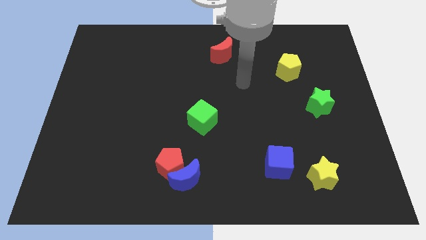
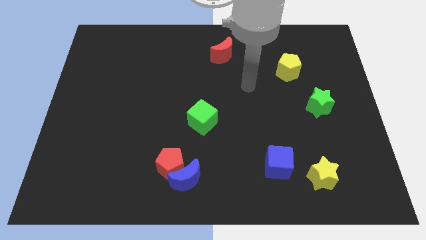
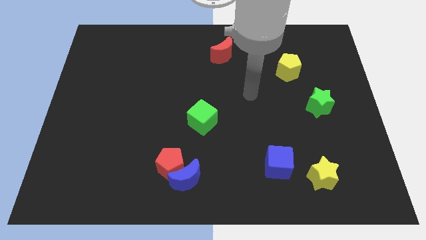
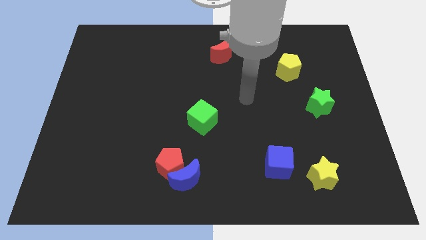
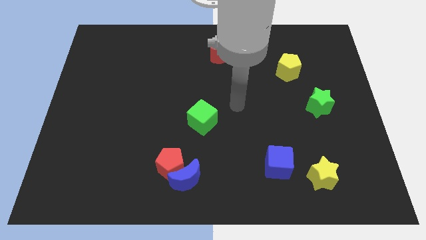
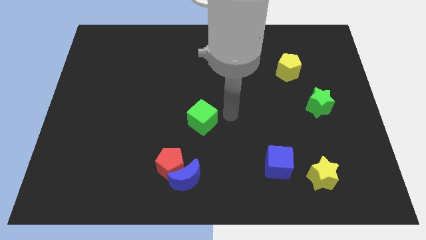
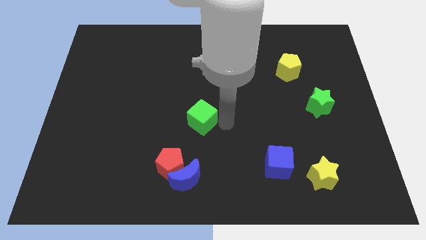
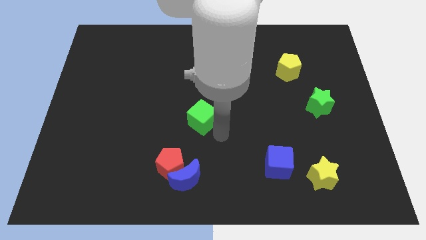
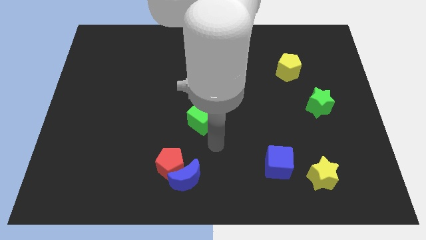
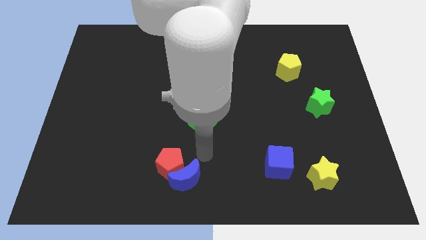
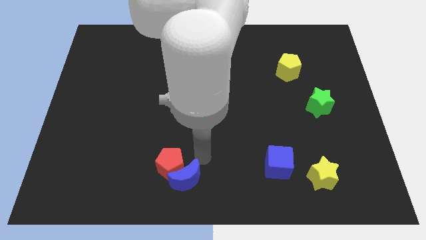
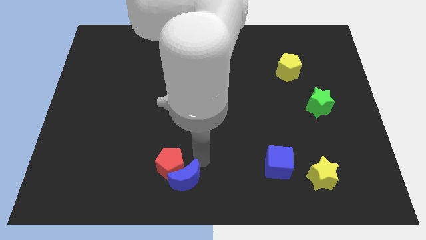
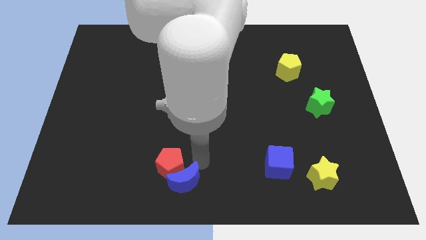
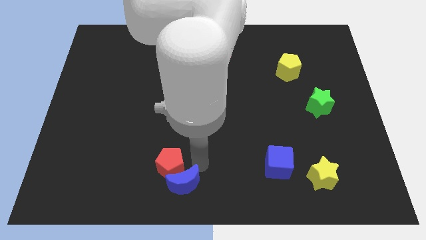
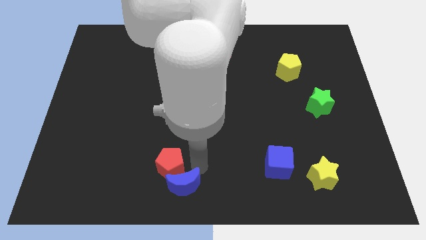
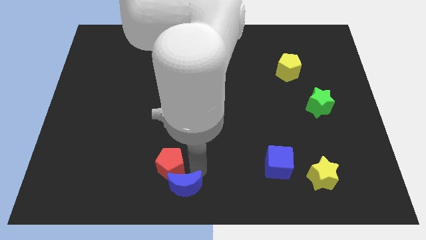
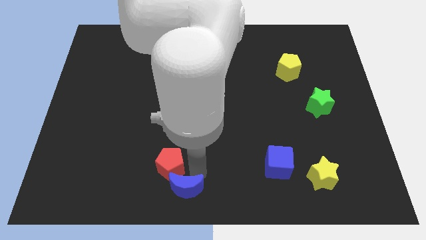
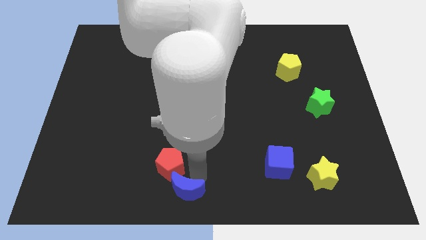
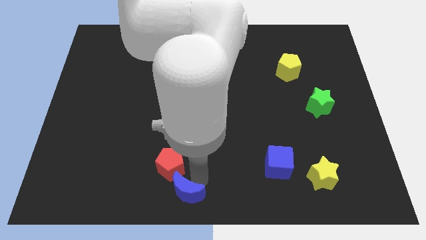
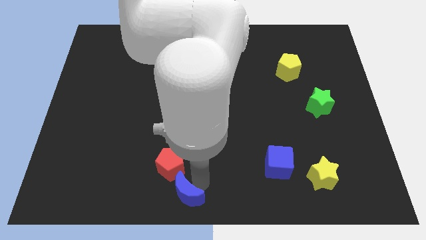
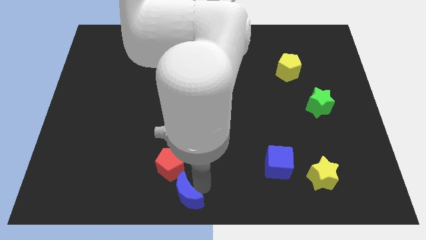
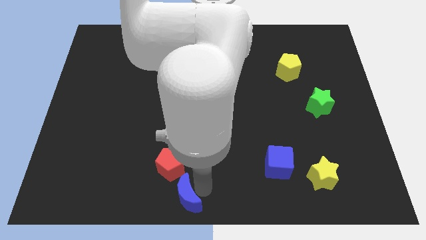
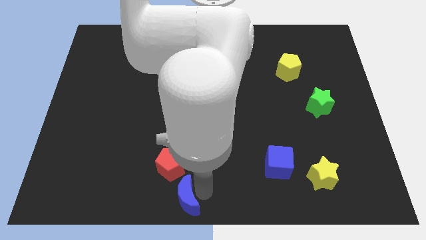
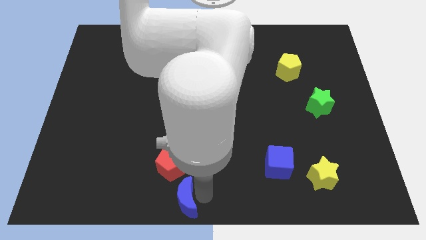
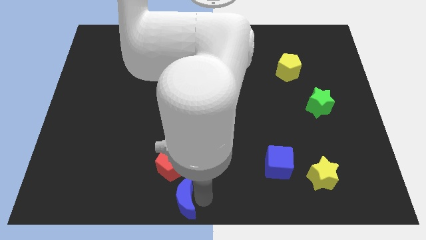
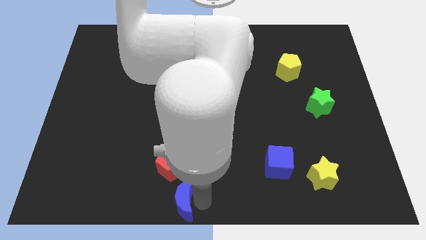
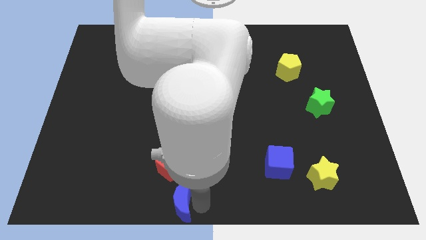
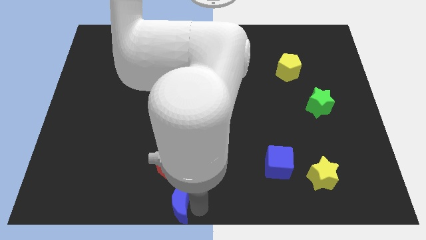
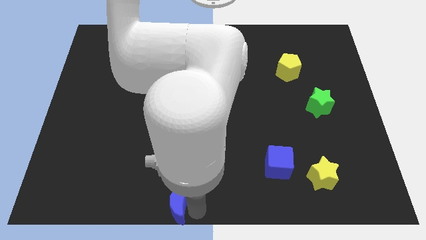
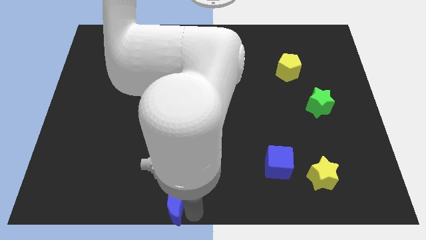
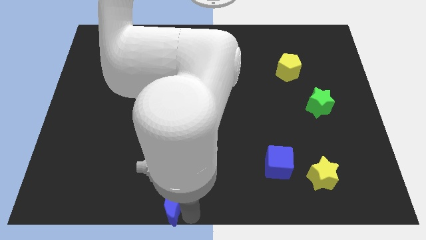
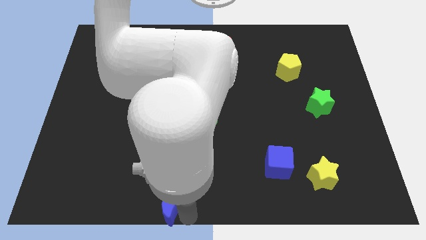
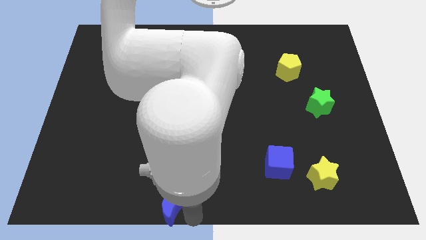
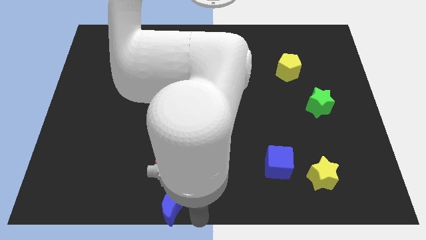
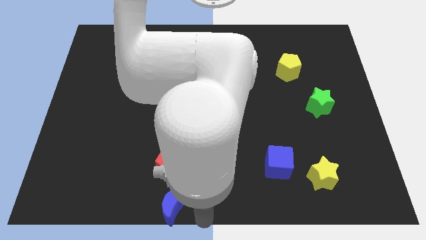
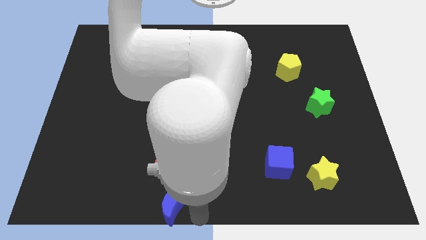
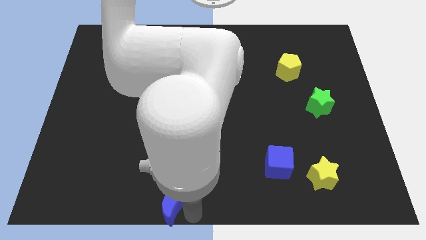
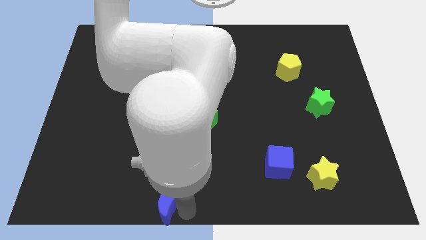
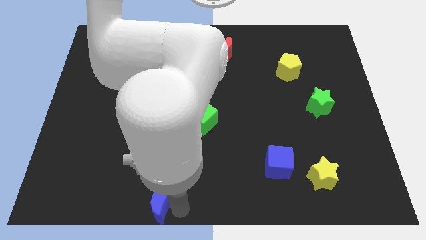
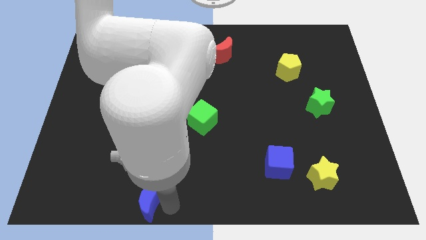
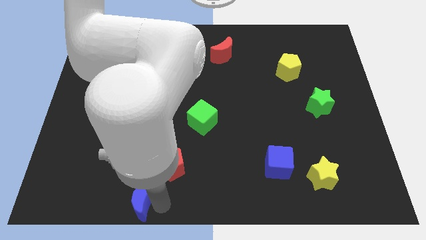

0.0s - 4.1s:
slightly move the blue moon to the left

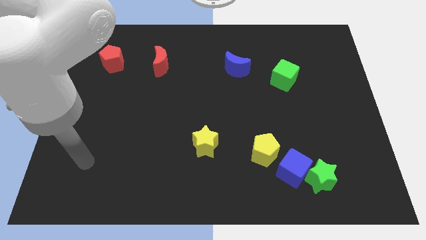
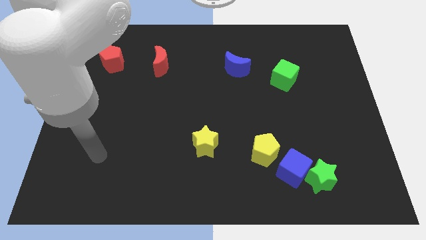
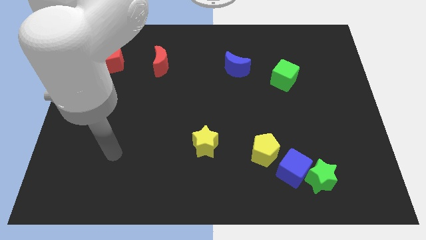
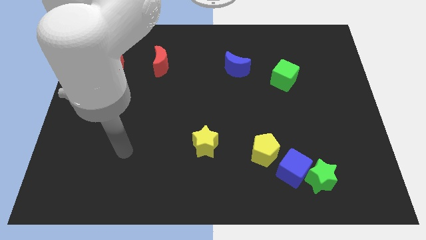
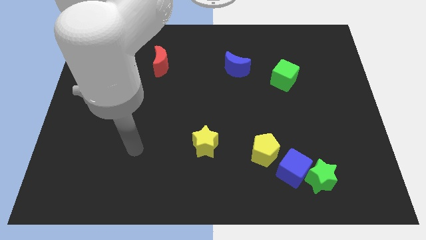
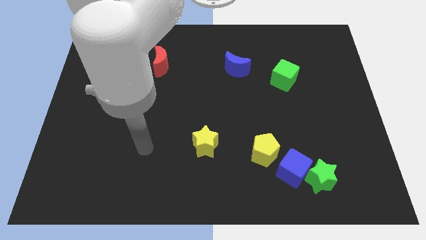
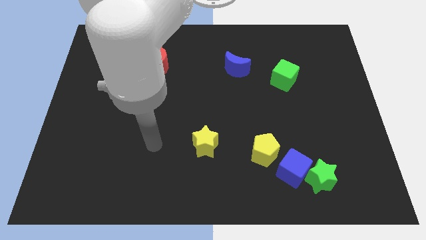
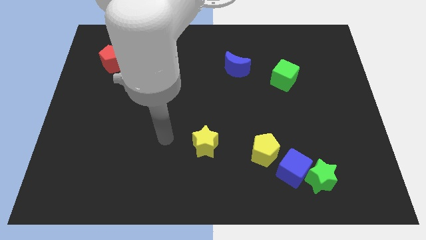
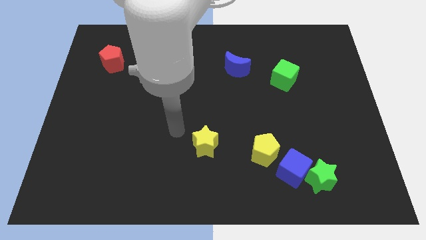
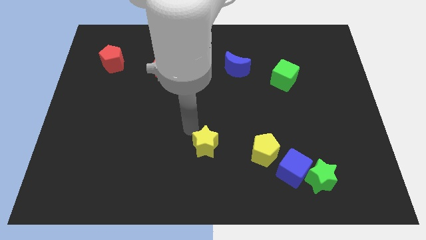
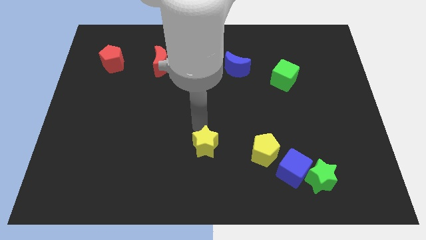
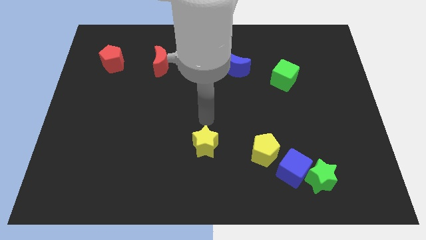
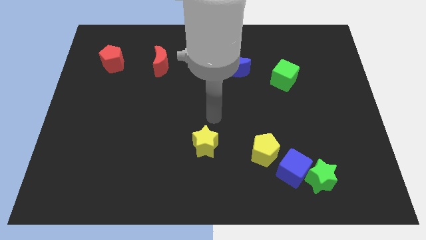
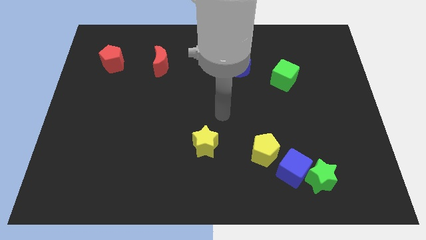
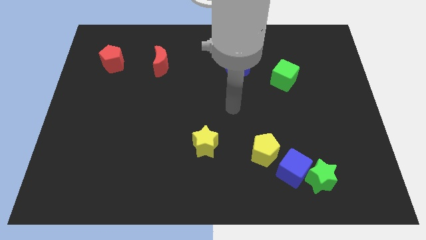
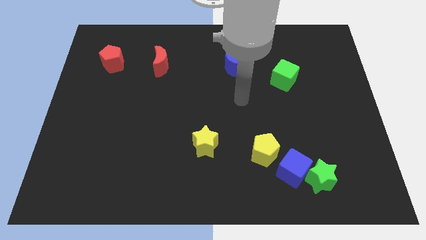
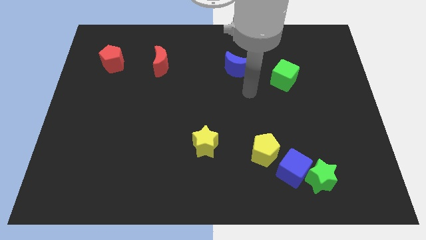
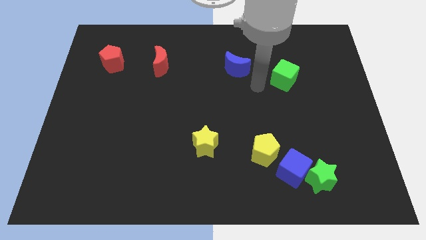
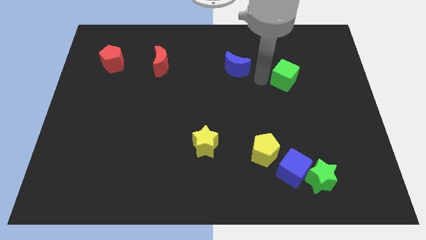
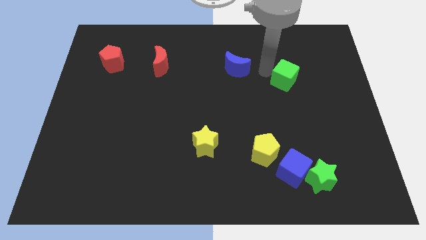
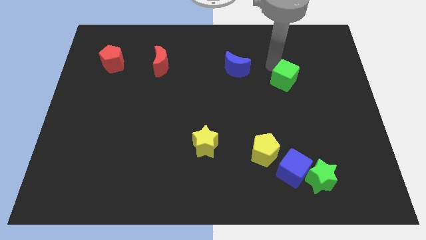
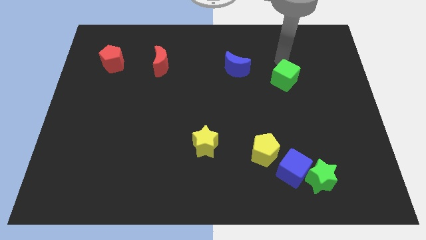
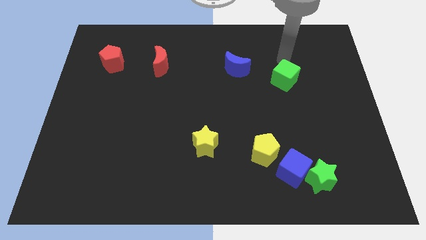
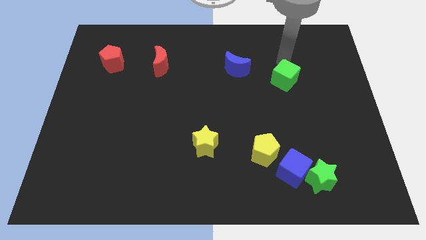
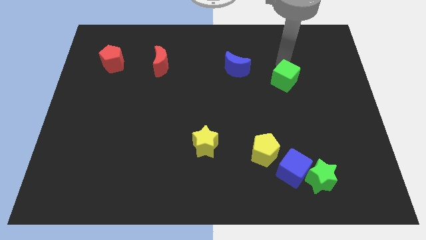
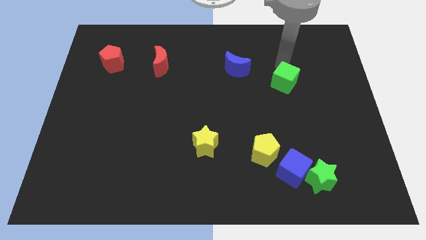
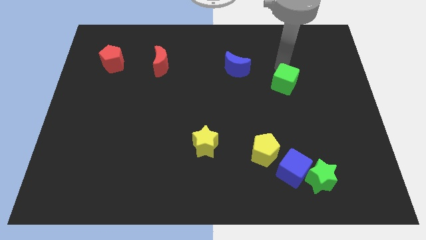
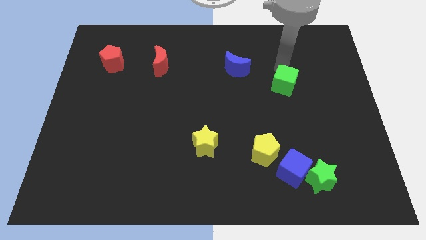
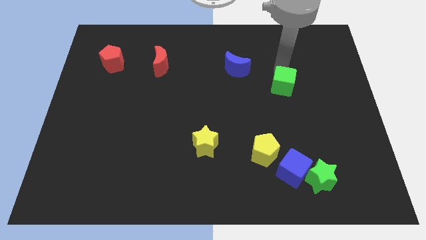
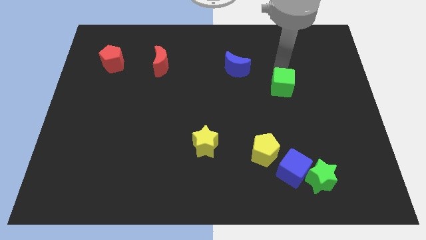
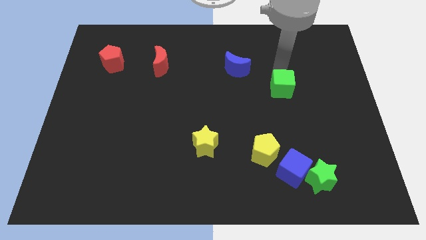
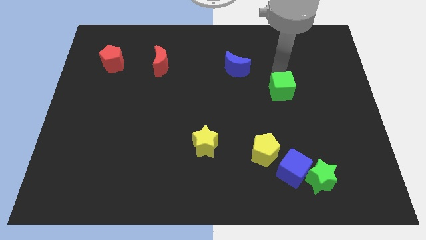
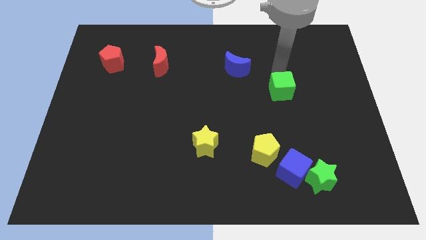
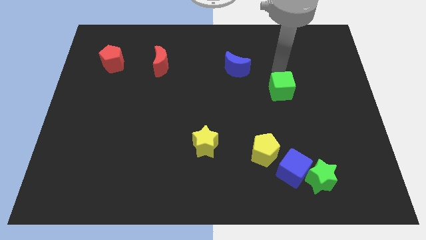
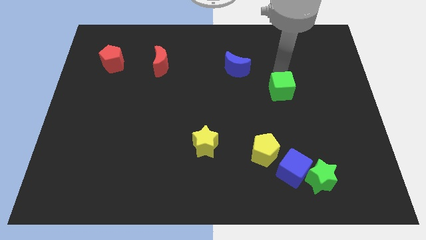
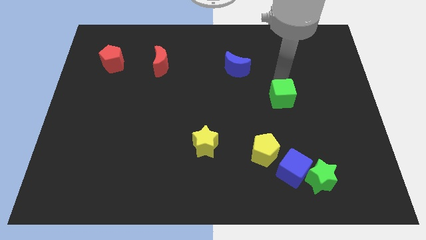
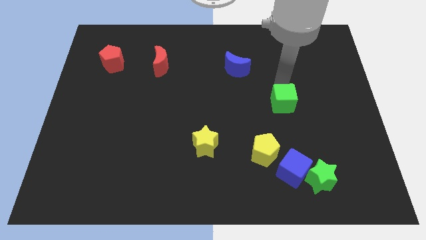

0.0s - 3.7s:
move the green cube down a little
